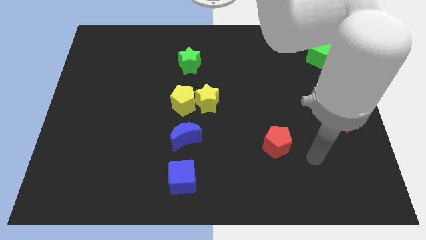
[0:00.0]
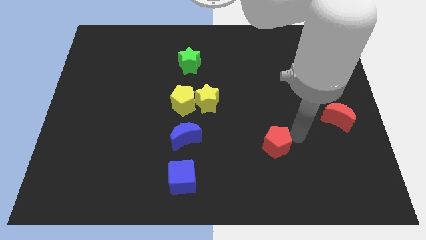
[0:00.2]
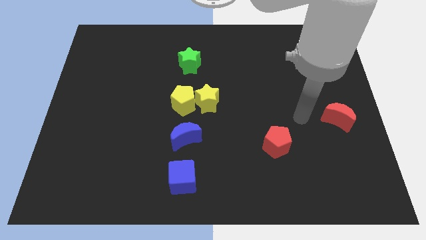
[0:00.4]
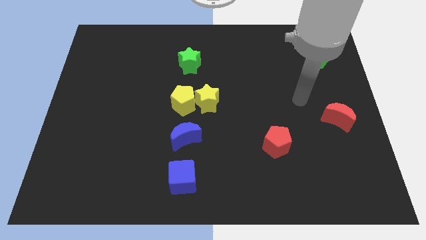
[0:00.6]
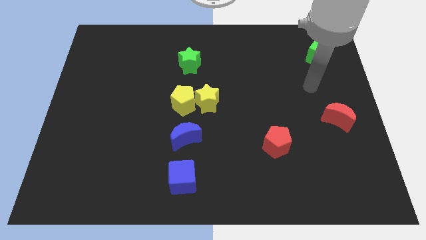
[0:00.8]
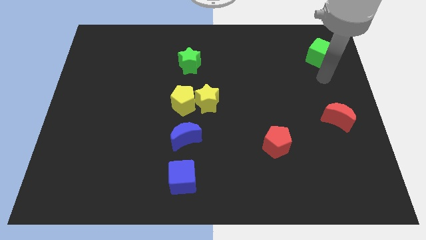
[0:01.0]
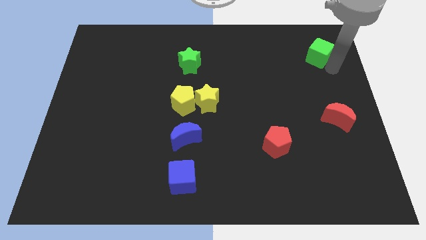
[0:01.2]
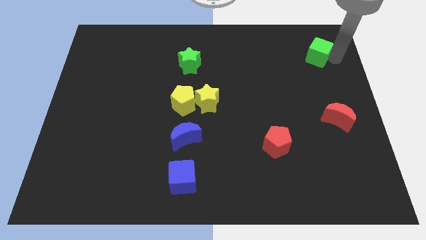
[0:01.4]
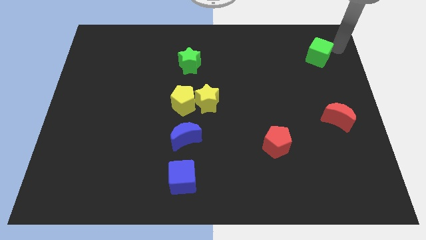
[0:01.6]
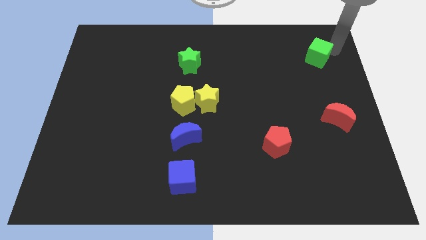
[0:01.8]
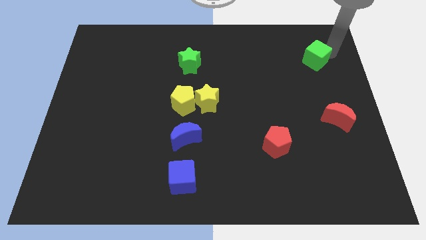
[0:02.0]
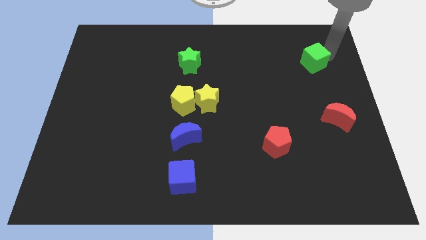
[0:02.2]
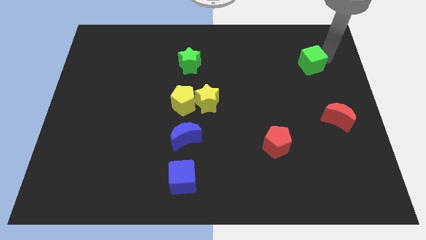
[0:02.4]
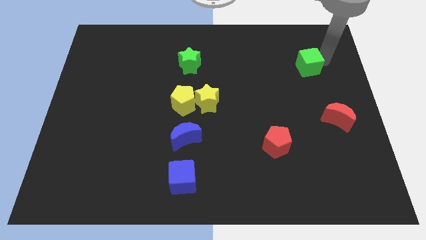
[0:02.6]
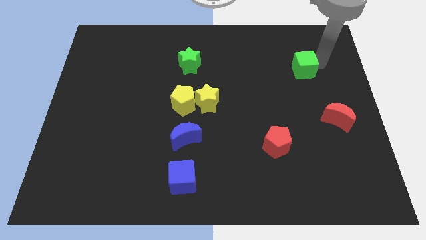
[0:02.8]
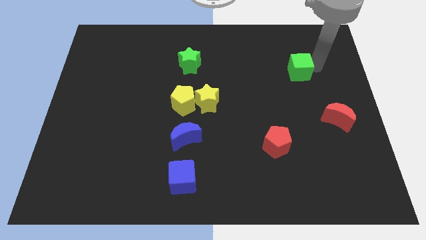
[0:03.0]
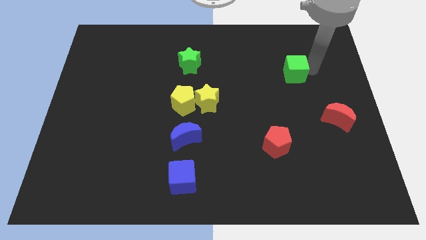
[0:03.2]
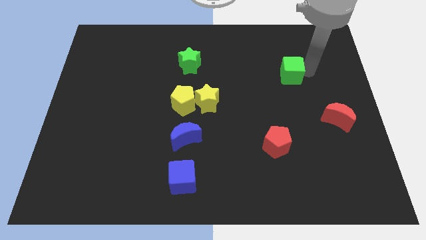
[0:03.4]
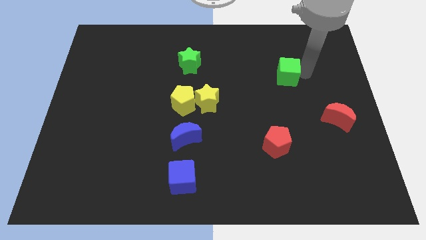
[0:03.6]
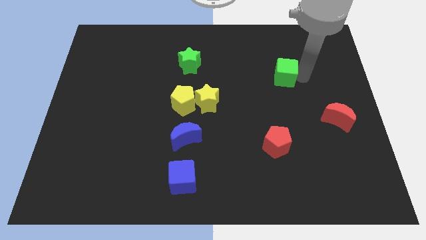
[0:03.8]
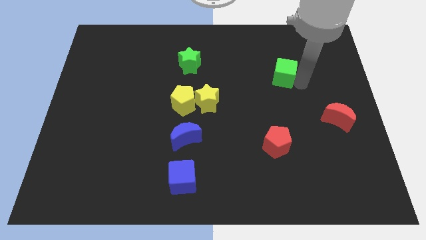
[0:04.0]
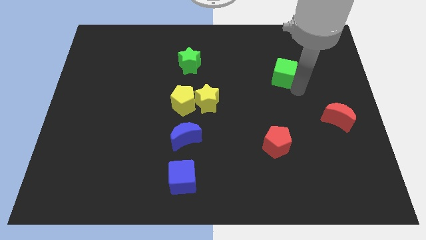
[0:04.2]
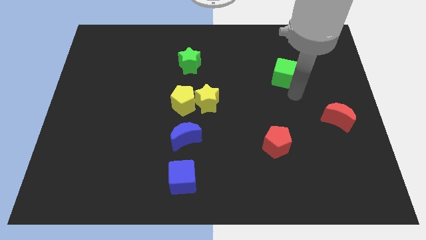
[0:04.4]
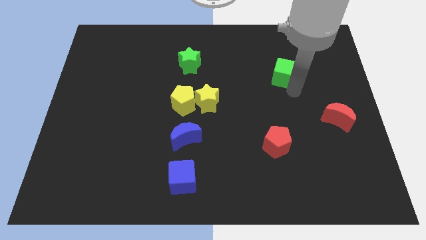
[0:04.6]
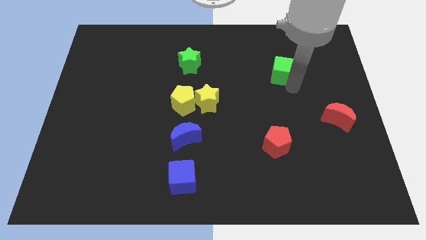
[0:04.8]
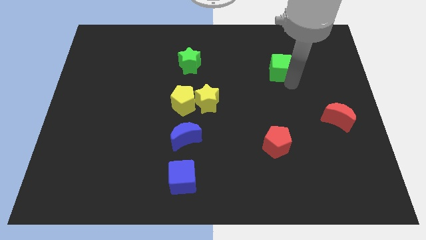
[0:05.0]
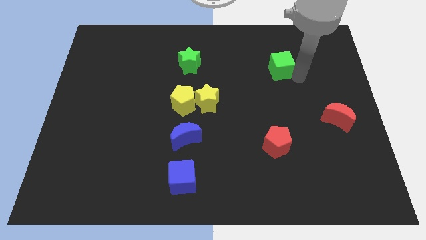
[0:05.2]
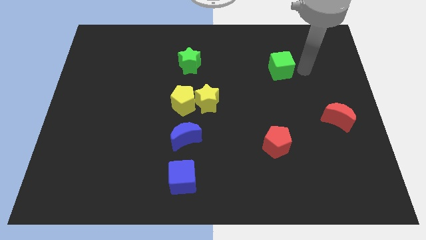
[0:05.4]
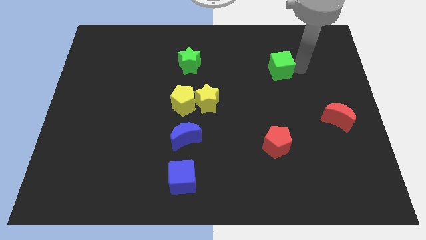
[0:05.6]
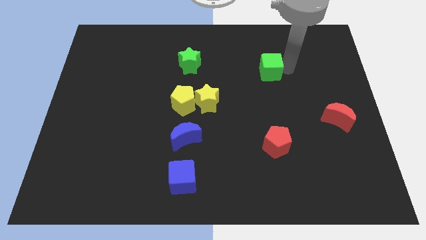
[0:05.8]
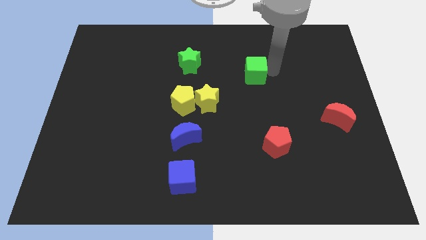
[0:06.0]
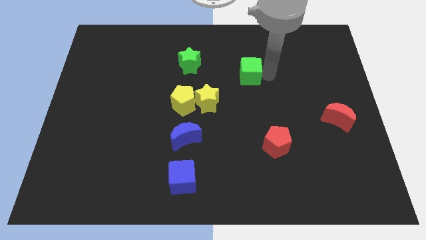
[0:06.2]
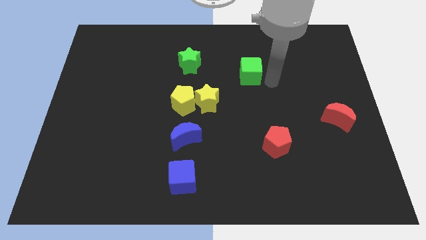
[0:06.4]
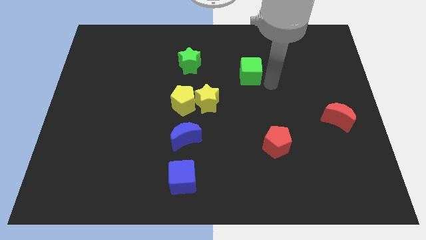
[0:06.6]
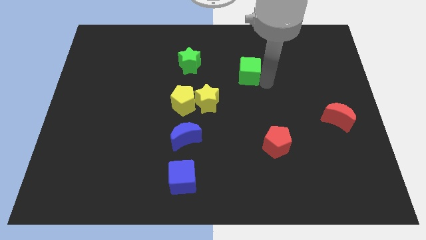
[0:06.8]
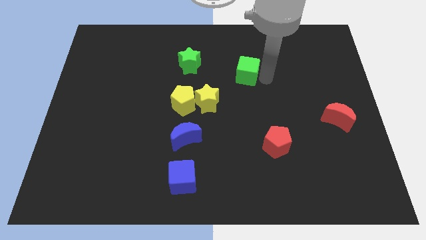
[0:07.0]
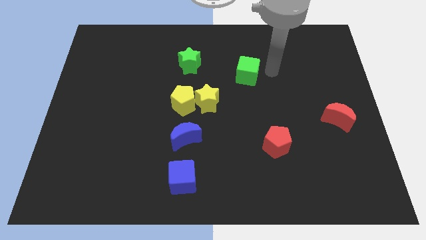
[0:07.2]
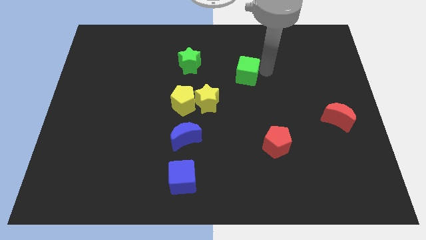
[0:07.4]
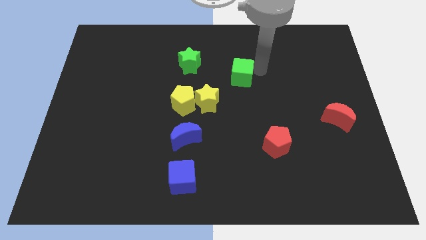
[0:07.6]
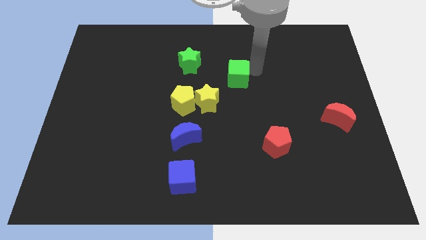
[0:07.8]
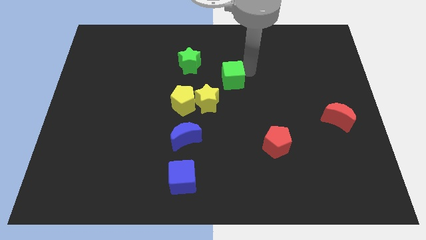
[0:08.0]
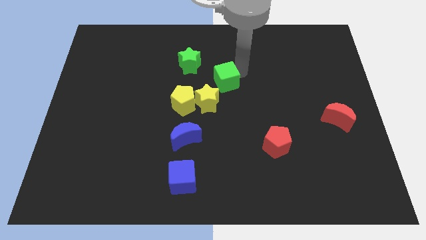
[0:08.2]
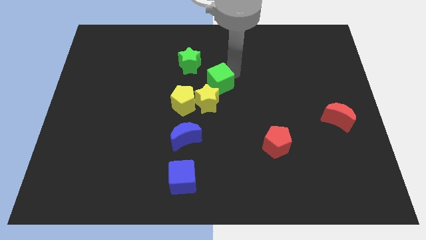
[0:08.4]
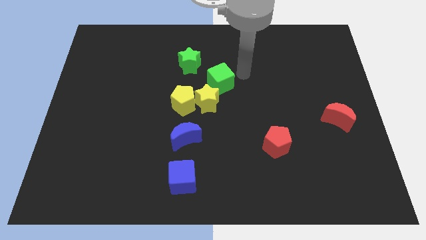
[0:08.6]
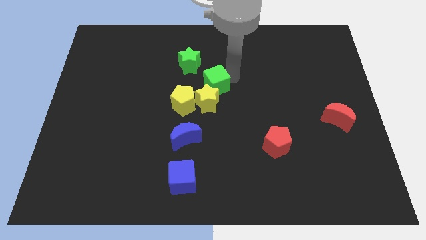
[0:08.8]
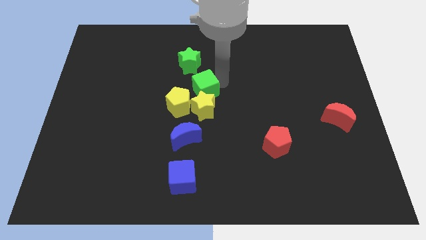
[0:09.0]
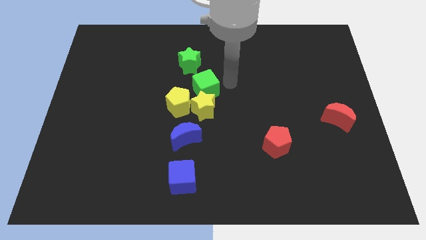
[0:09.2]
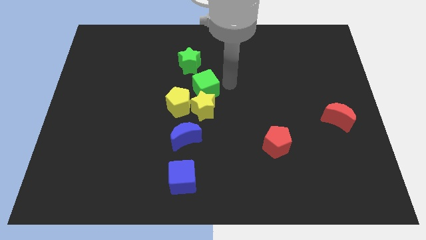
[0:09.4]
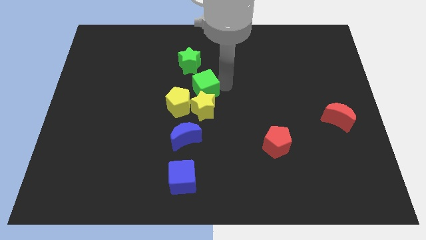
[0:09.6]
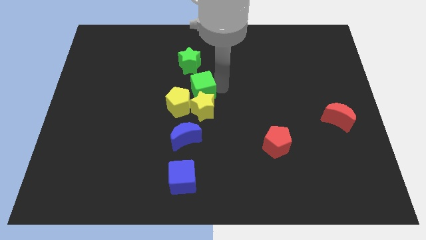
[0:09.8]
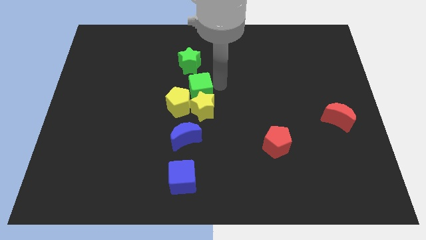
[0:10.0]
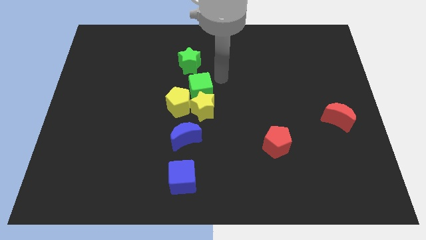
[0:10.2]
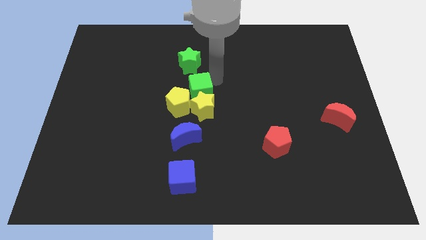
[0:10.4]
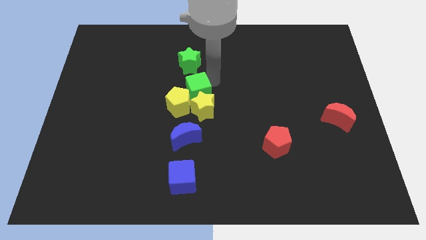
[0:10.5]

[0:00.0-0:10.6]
put the green cube towards the yellow pentagon

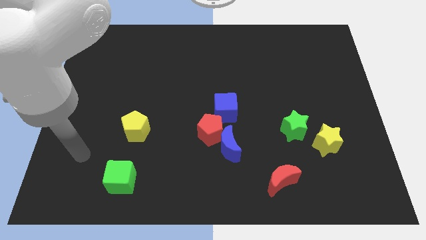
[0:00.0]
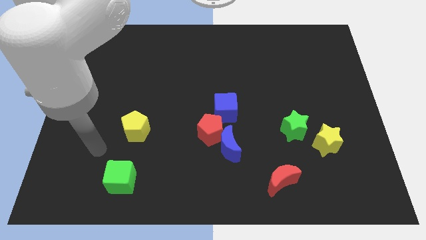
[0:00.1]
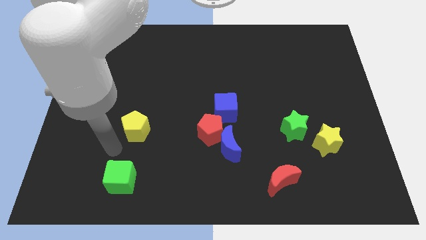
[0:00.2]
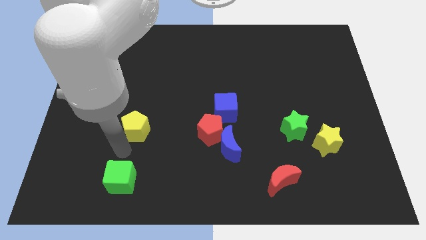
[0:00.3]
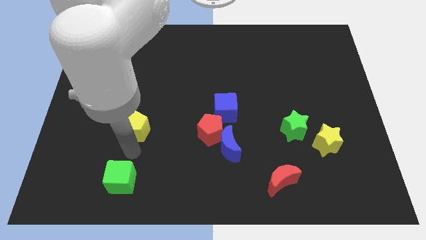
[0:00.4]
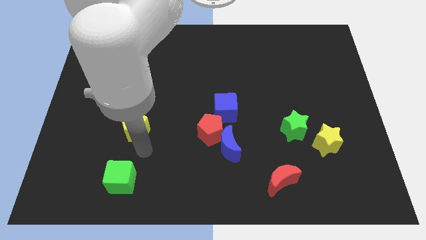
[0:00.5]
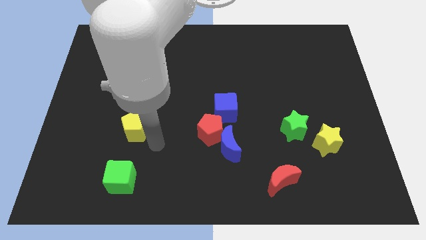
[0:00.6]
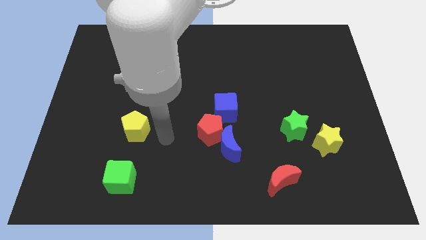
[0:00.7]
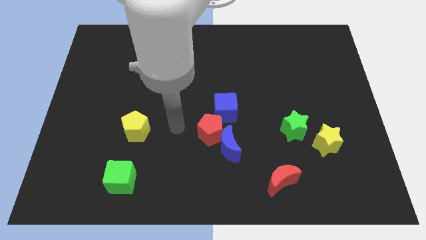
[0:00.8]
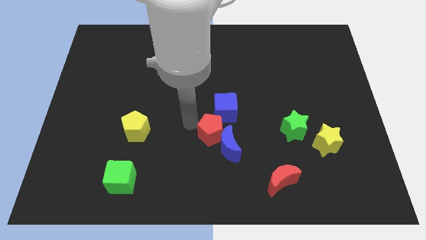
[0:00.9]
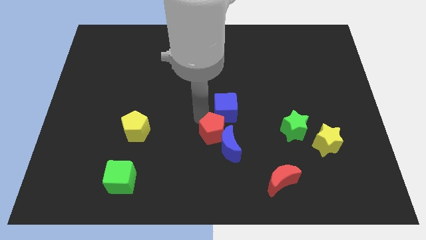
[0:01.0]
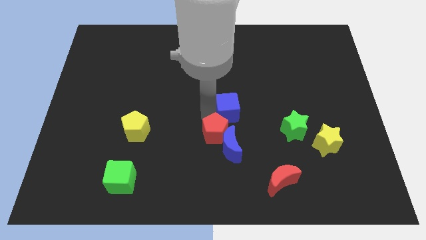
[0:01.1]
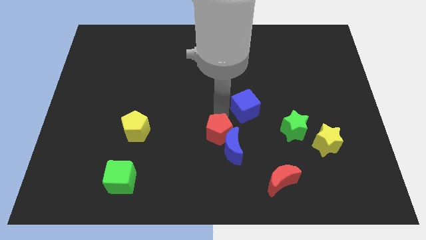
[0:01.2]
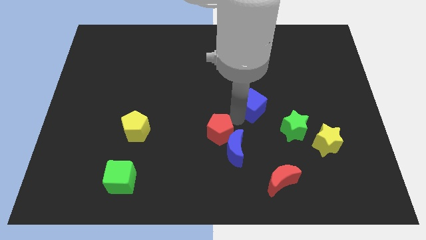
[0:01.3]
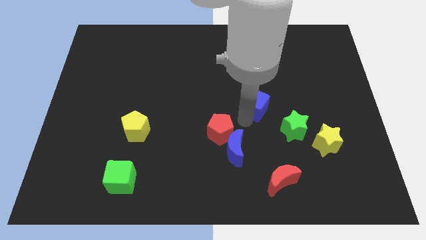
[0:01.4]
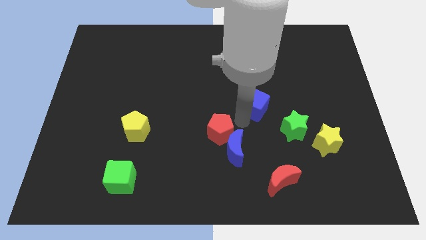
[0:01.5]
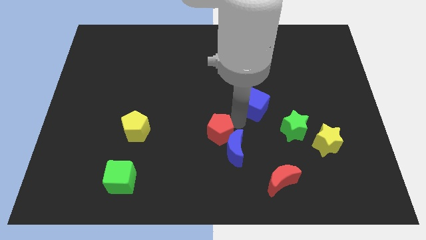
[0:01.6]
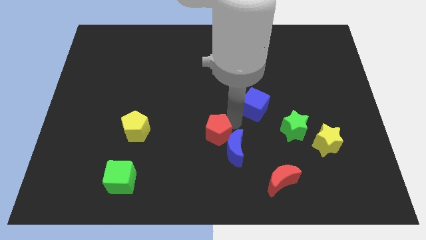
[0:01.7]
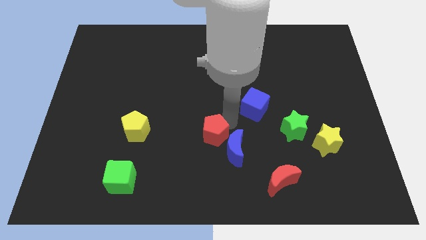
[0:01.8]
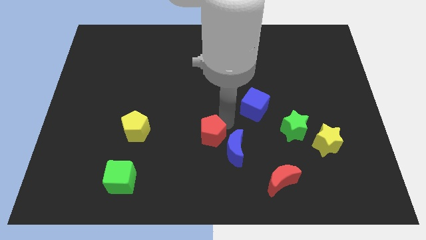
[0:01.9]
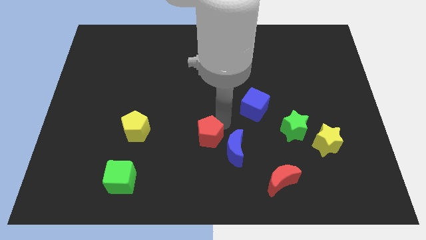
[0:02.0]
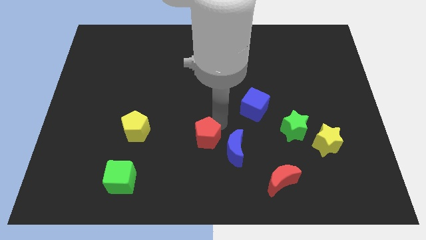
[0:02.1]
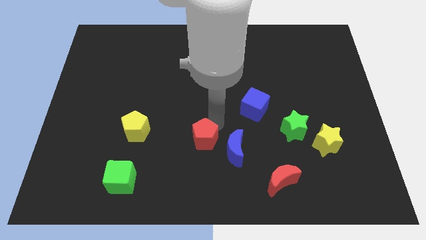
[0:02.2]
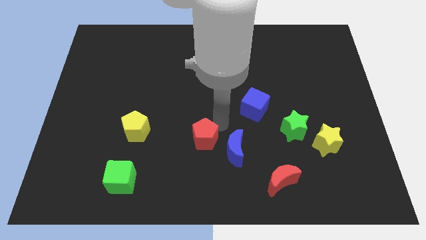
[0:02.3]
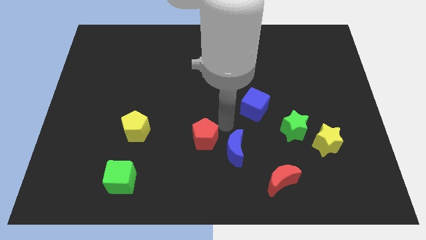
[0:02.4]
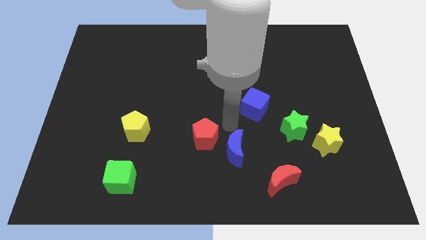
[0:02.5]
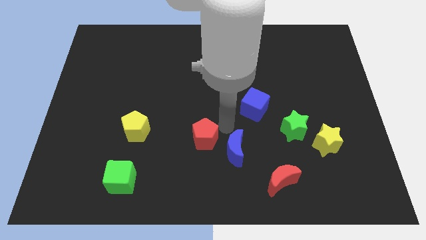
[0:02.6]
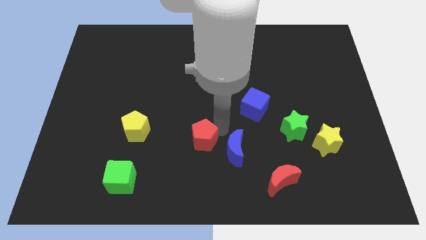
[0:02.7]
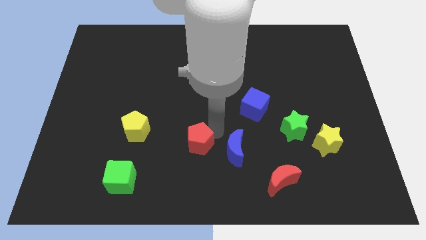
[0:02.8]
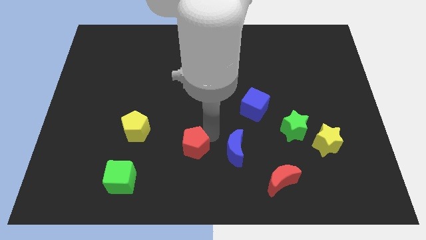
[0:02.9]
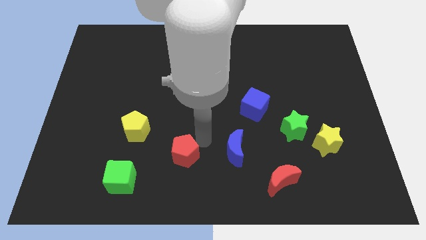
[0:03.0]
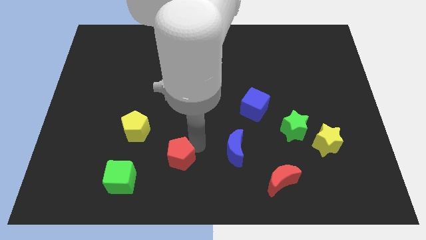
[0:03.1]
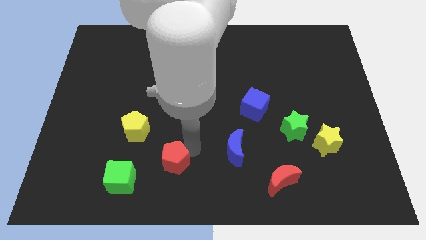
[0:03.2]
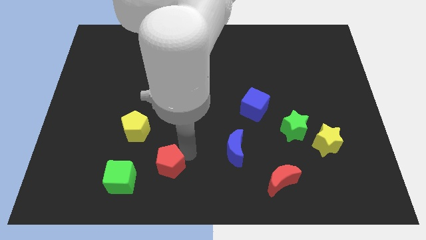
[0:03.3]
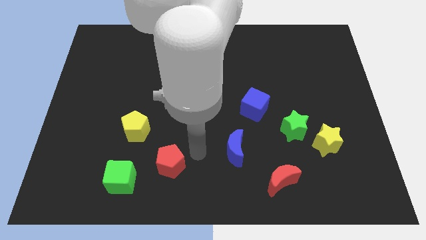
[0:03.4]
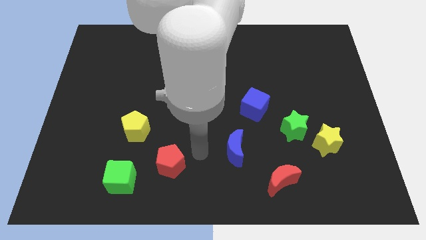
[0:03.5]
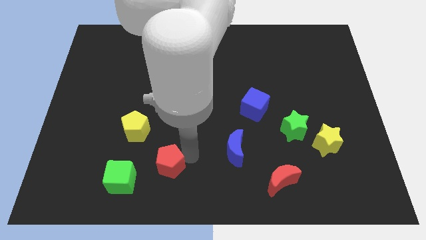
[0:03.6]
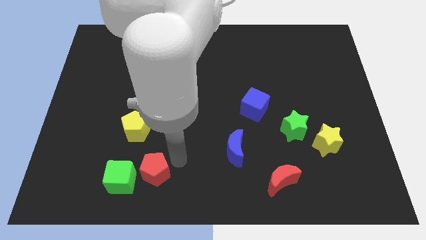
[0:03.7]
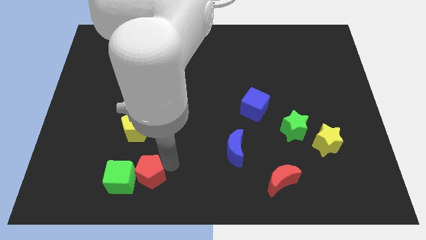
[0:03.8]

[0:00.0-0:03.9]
slide the red pentagon towards the green cube
